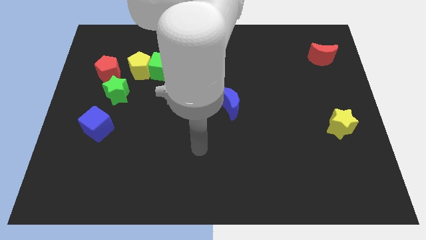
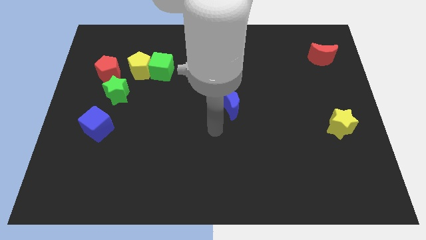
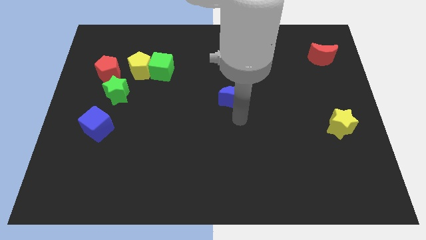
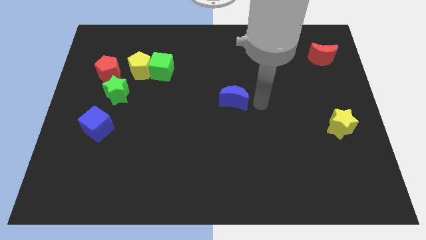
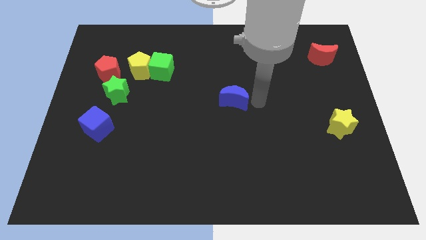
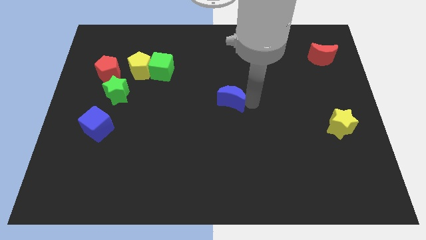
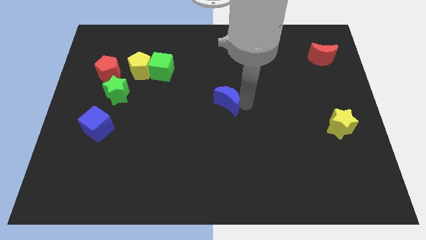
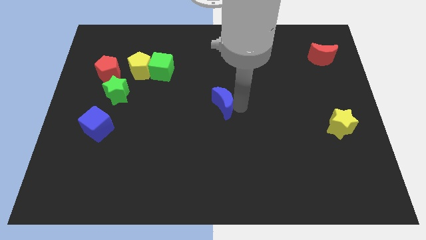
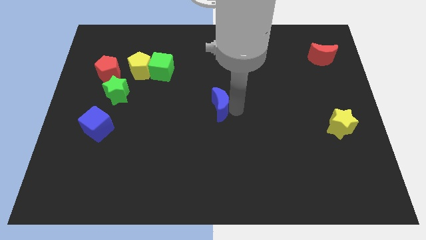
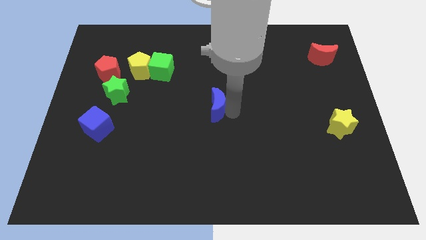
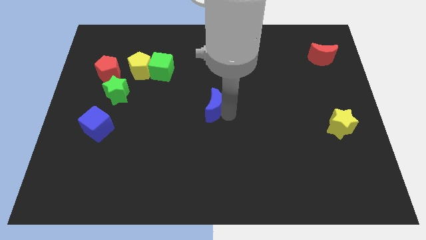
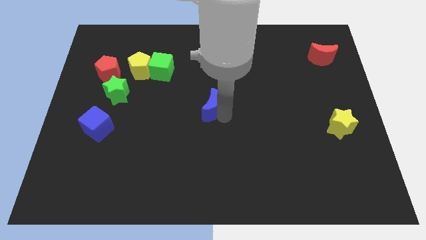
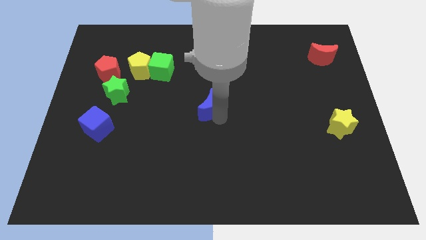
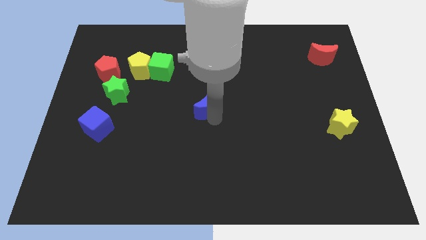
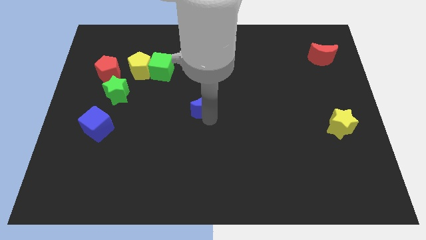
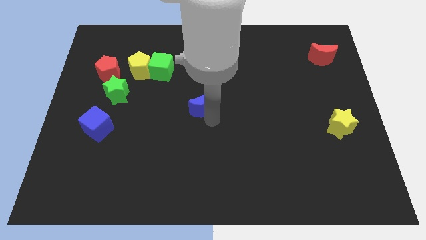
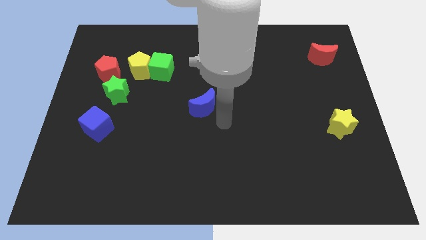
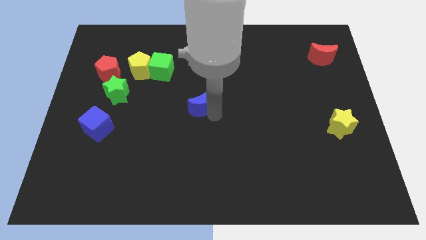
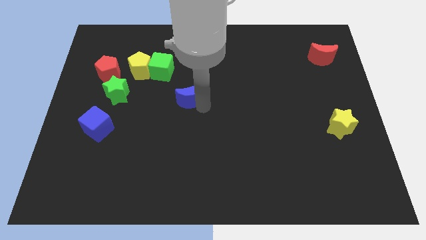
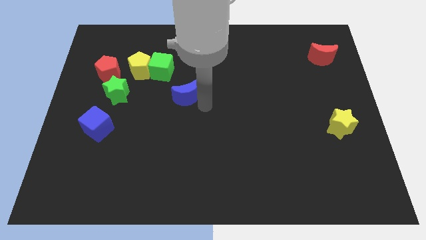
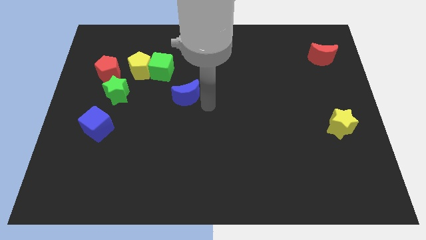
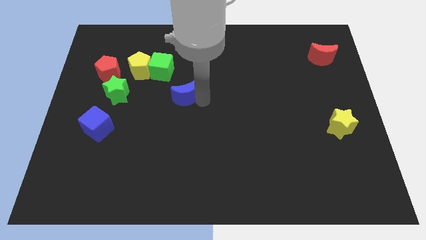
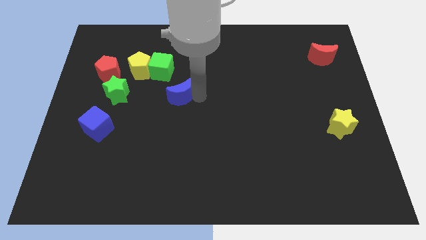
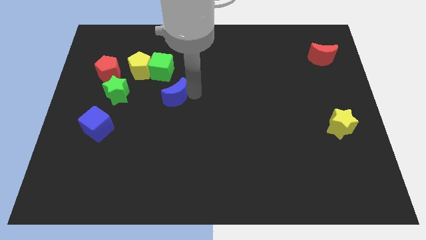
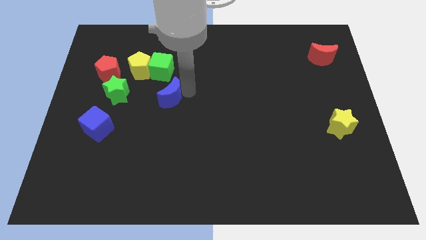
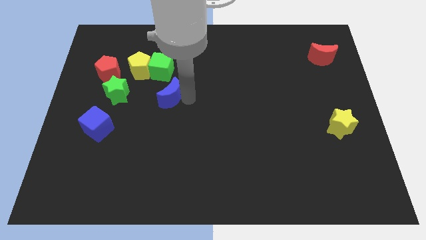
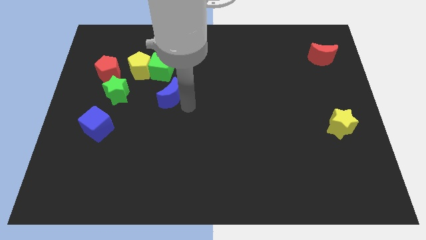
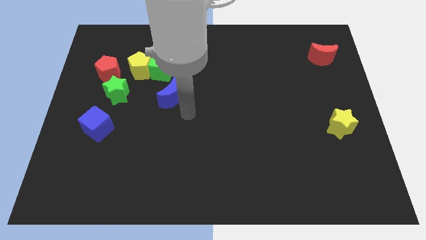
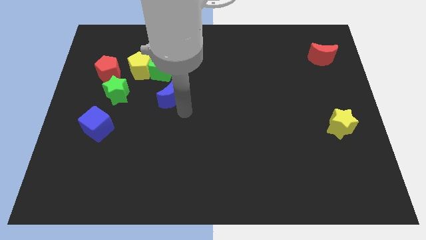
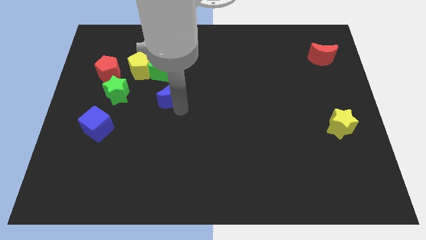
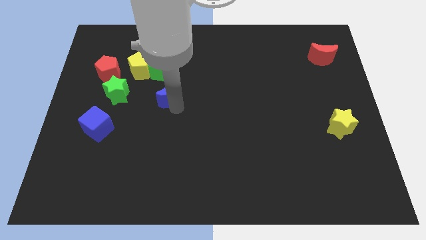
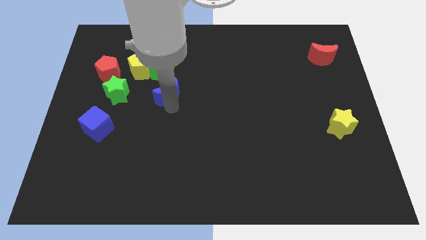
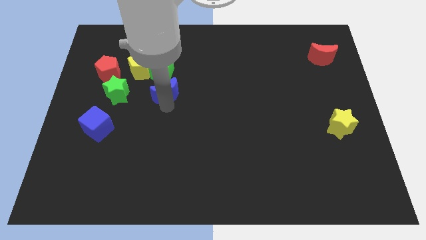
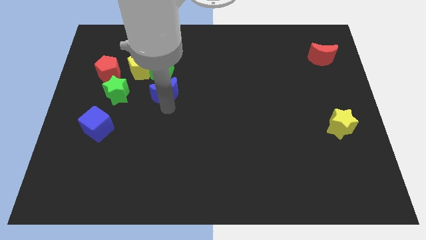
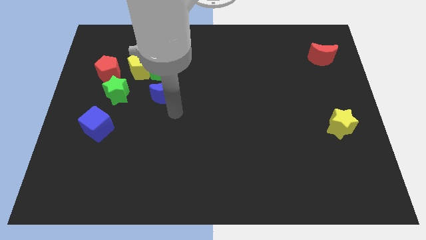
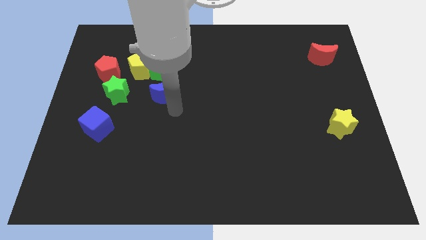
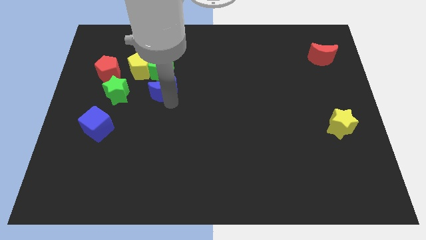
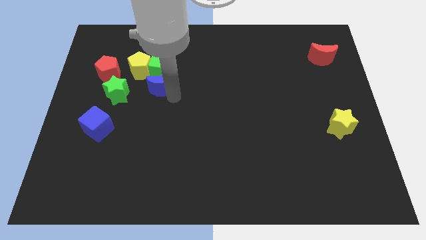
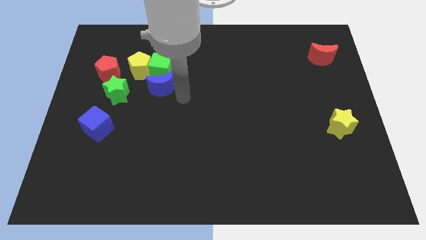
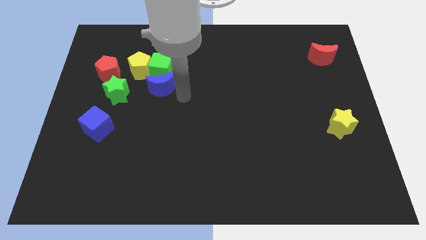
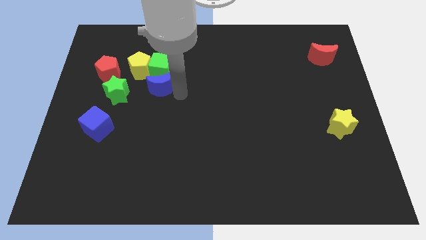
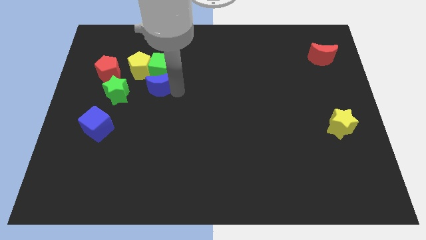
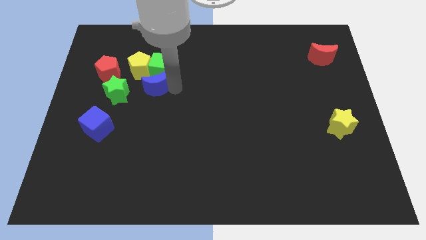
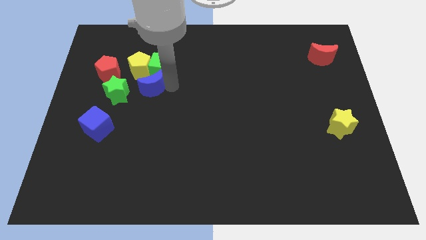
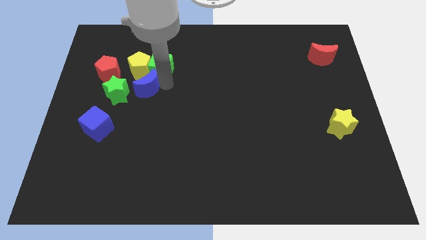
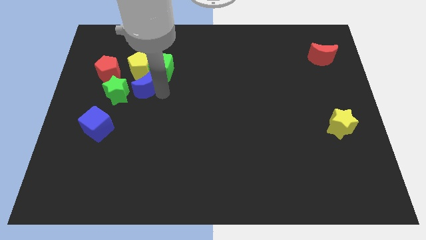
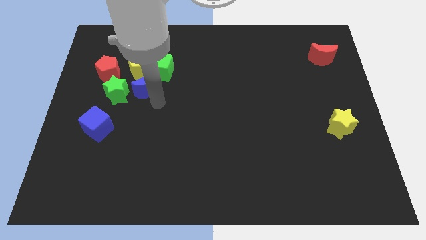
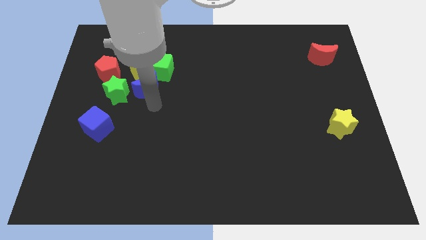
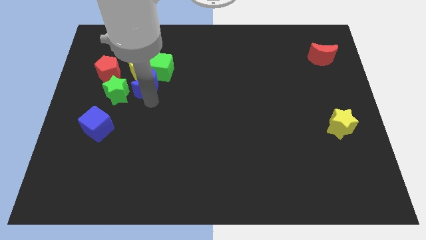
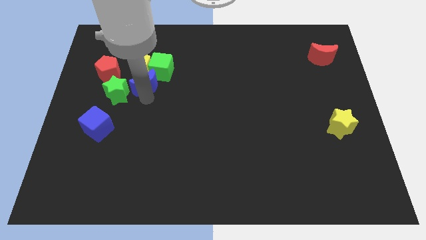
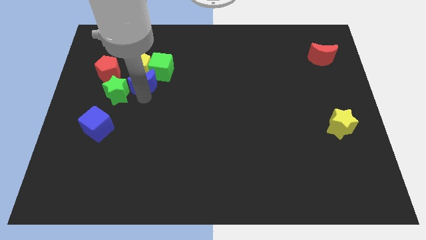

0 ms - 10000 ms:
push the blue moon next to the yellow pentagon

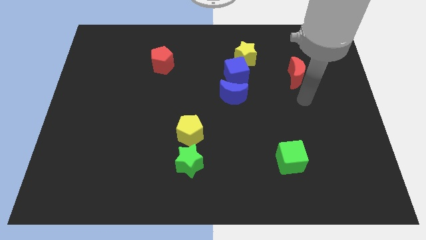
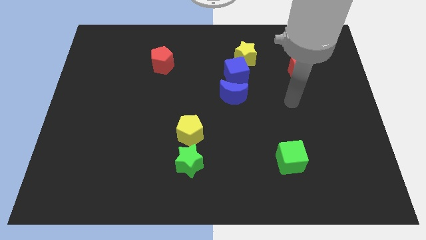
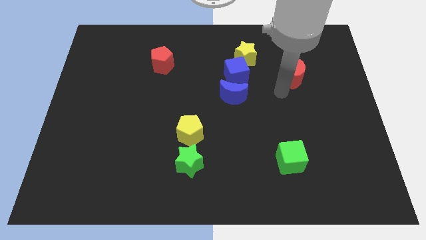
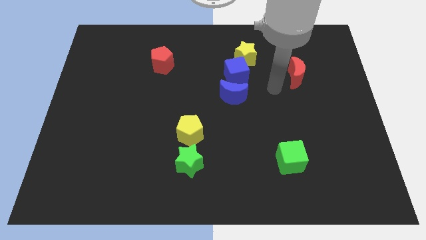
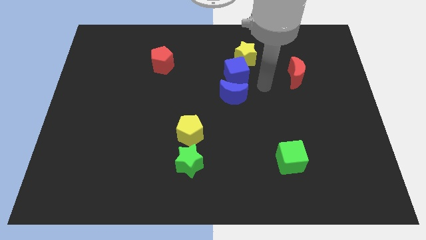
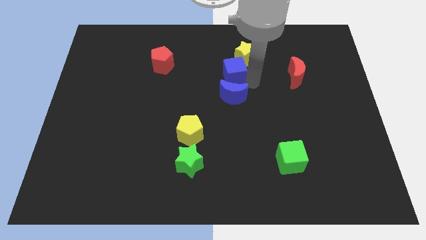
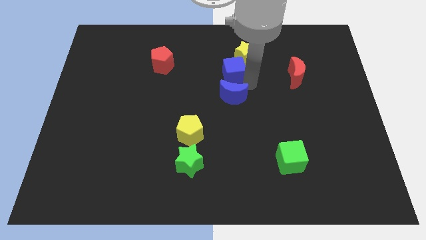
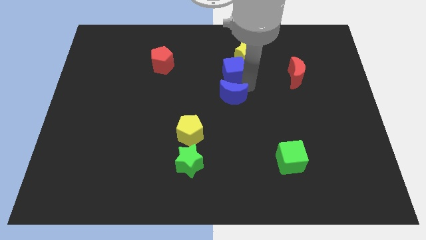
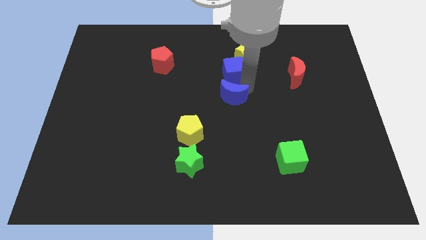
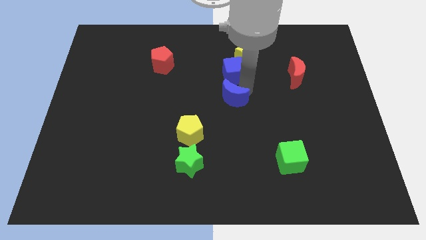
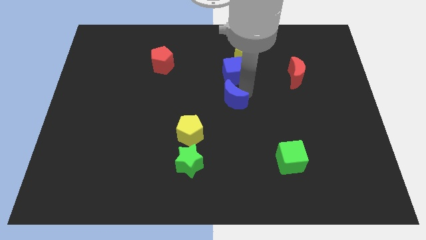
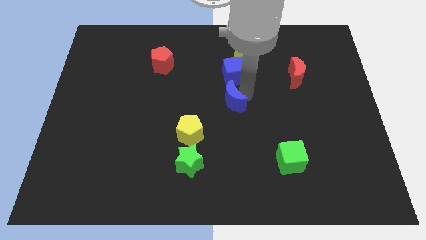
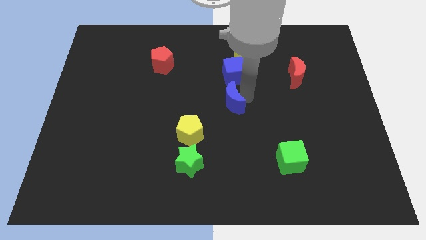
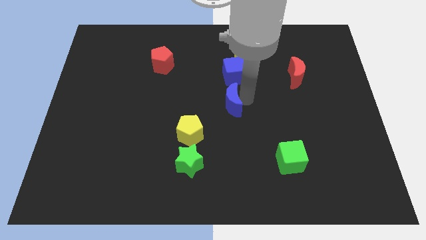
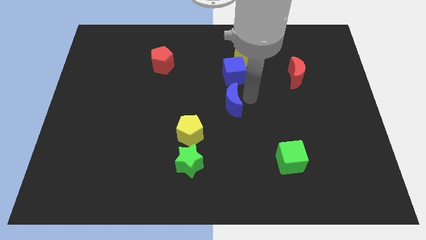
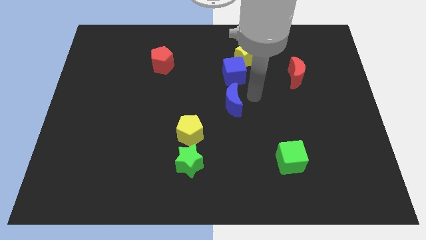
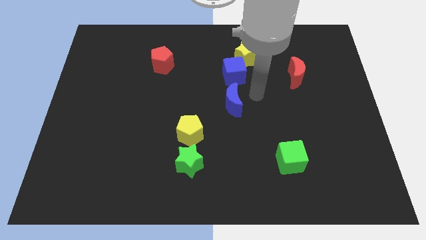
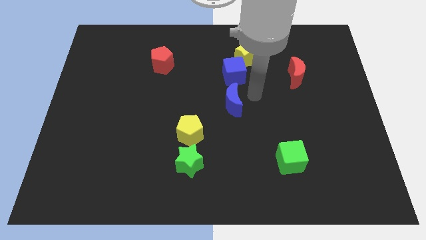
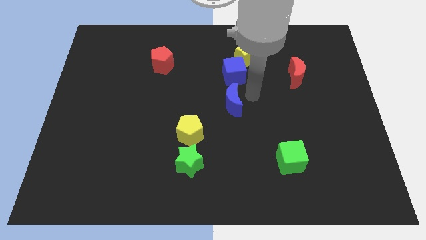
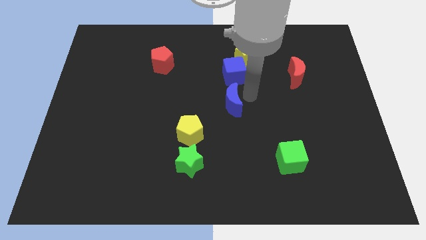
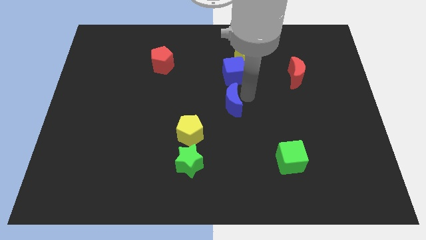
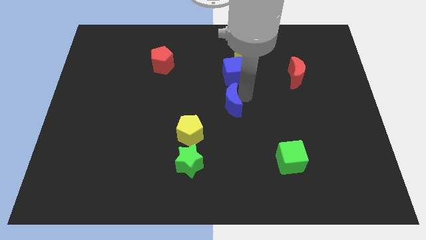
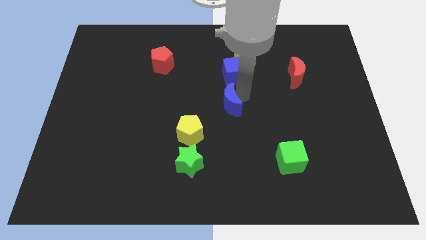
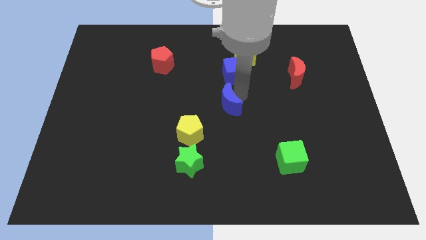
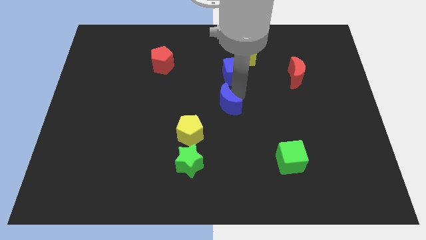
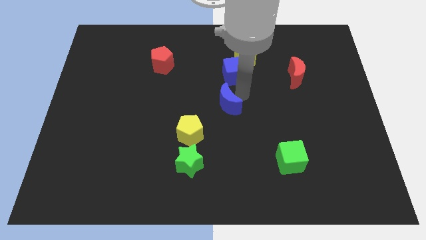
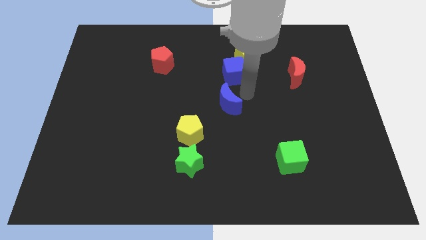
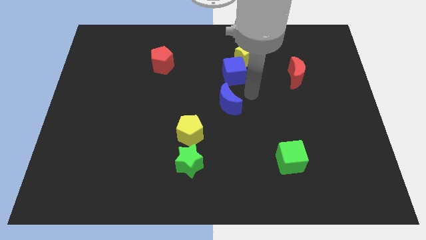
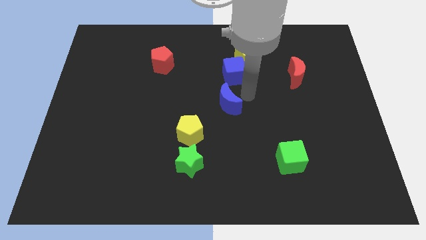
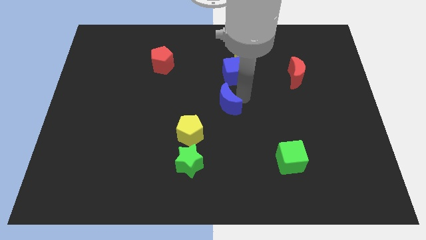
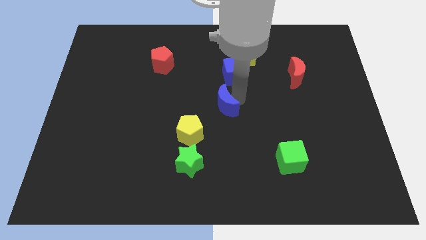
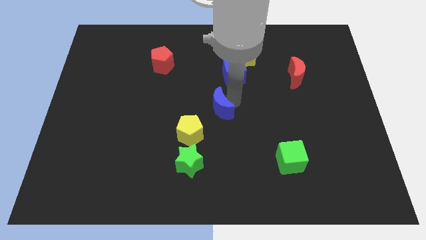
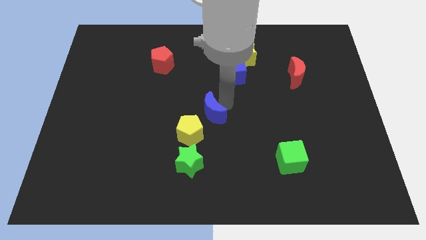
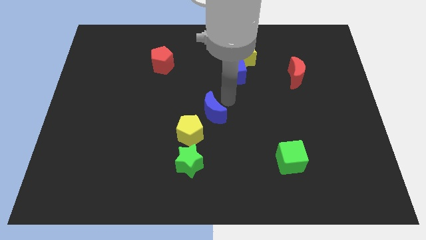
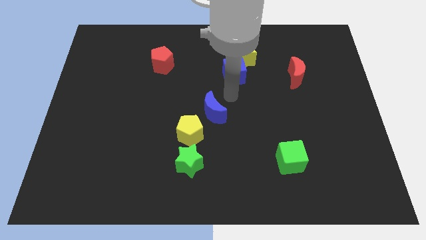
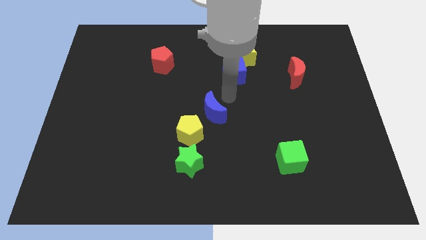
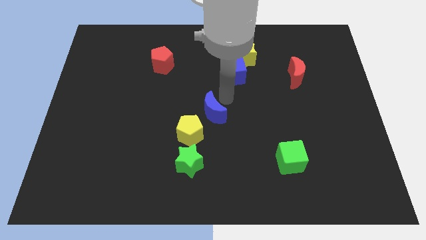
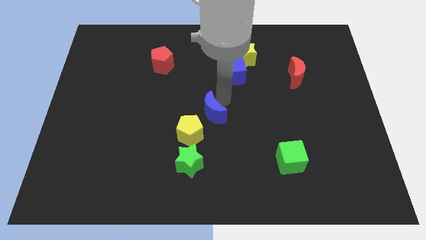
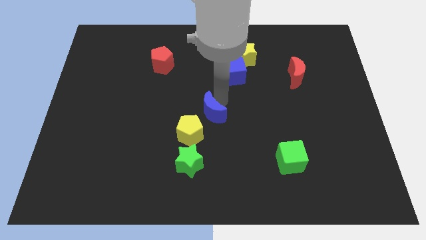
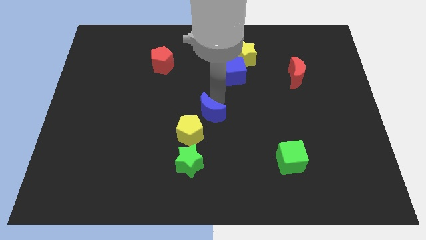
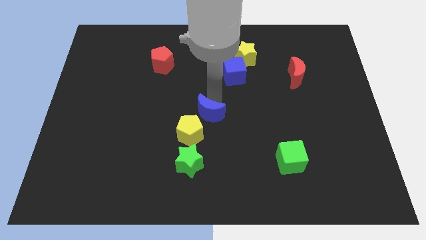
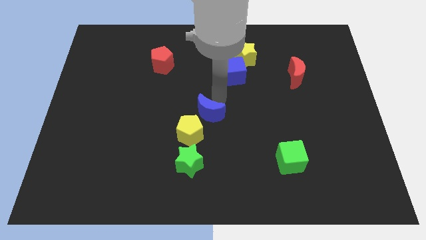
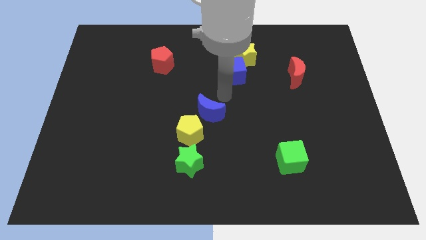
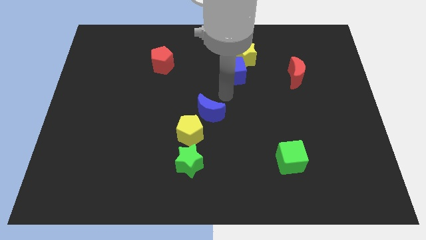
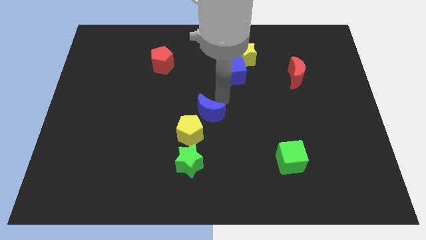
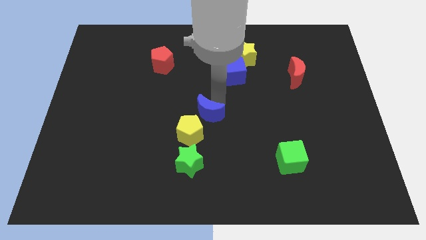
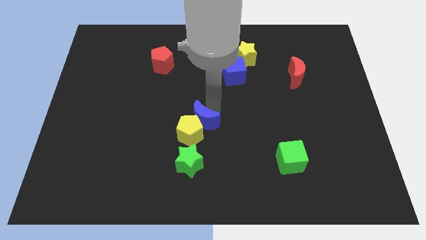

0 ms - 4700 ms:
slide the blue moon to the yellow pentagon
